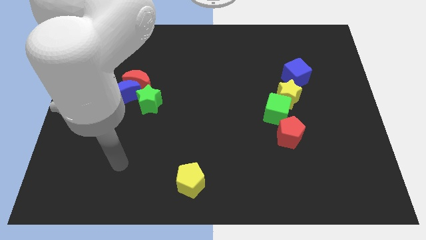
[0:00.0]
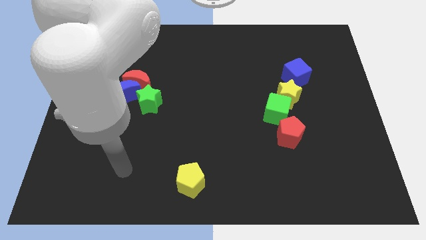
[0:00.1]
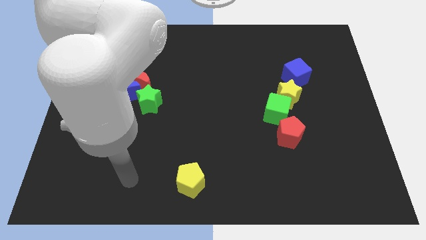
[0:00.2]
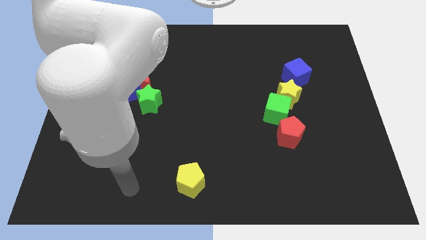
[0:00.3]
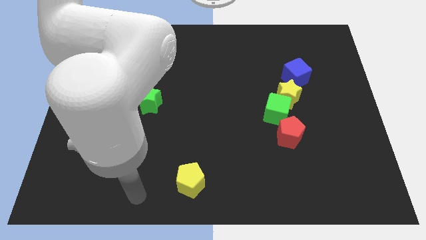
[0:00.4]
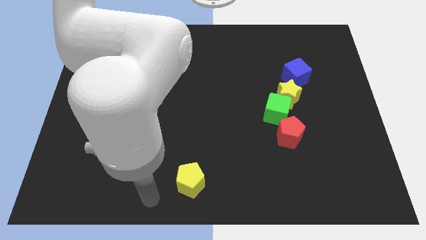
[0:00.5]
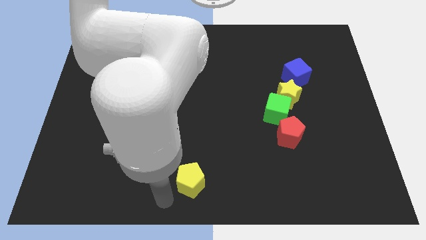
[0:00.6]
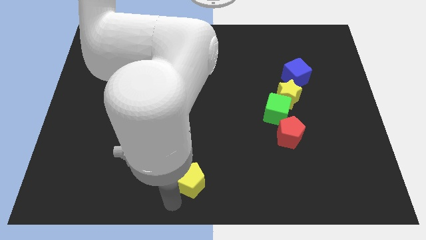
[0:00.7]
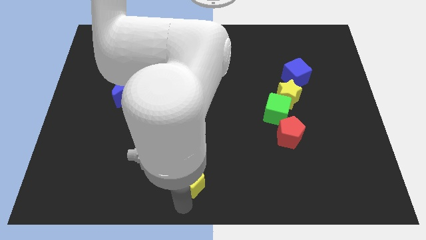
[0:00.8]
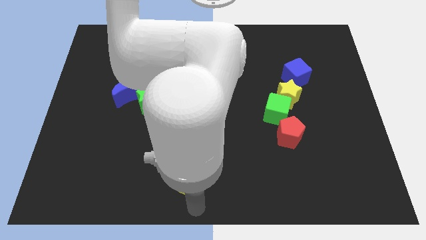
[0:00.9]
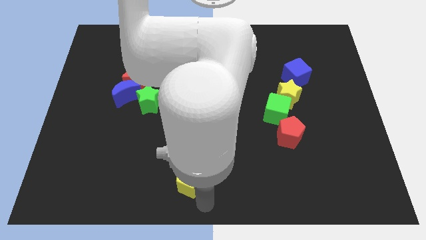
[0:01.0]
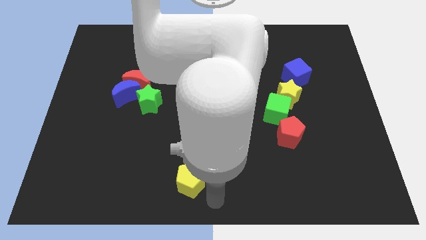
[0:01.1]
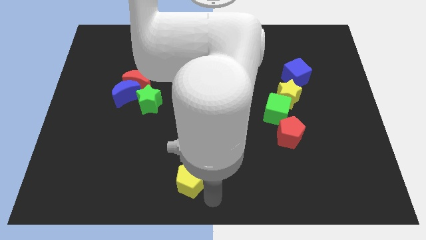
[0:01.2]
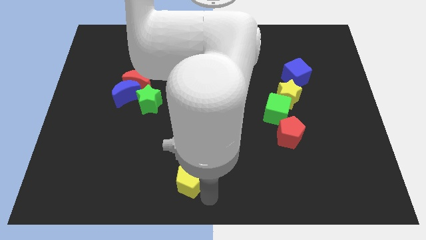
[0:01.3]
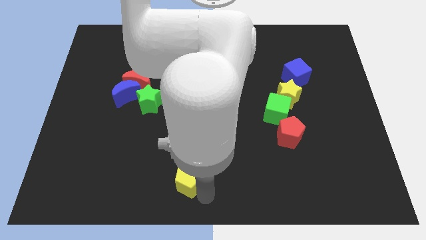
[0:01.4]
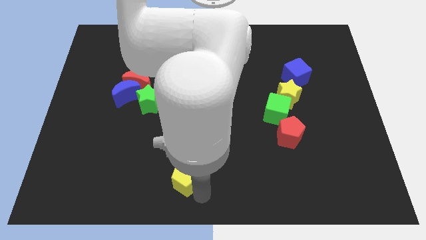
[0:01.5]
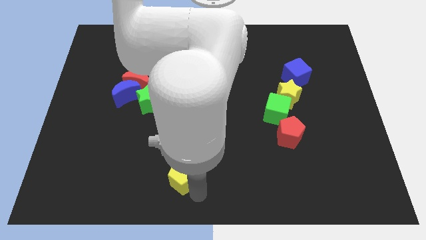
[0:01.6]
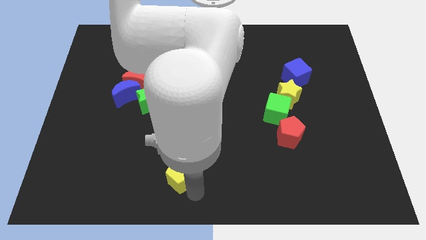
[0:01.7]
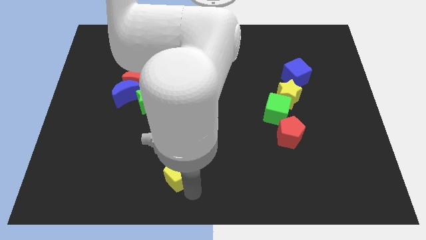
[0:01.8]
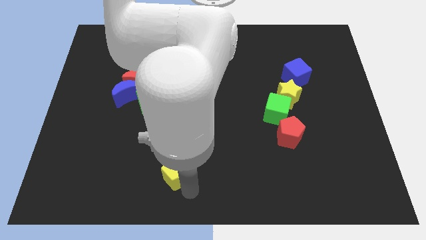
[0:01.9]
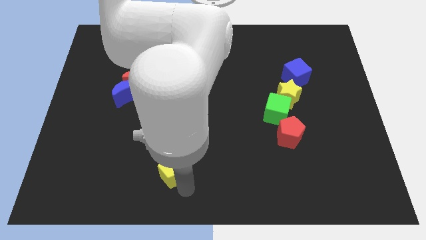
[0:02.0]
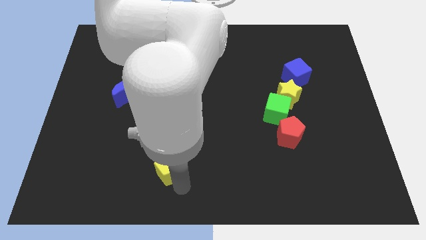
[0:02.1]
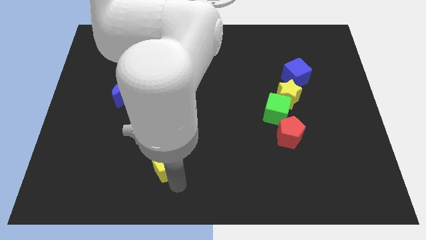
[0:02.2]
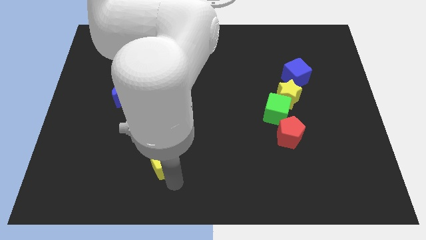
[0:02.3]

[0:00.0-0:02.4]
slightly move the yellow pentagon up and then left

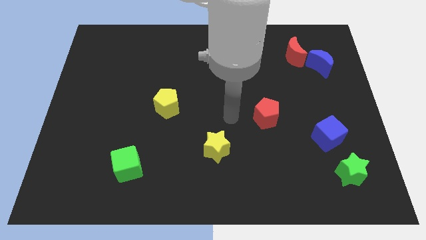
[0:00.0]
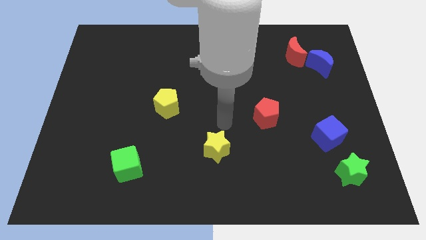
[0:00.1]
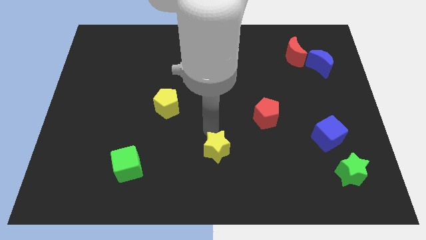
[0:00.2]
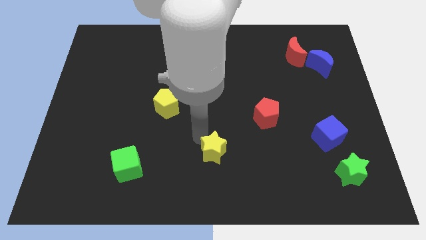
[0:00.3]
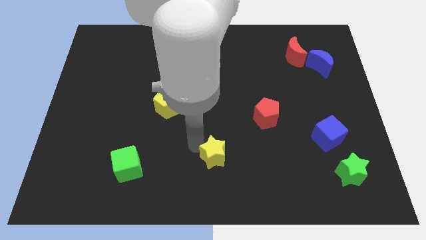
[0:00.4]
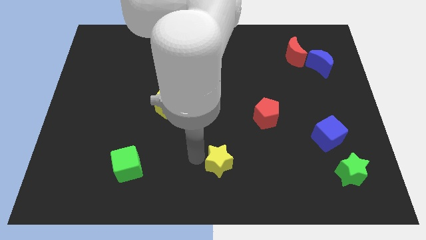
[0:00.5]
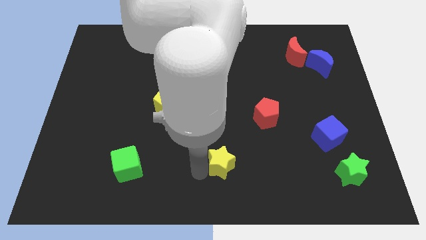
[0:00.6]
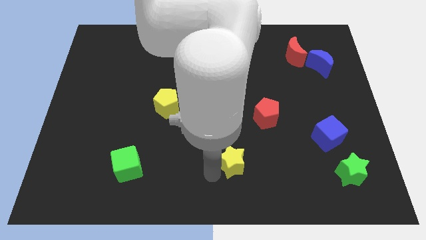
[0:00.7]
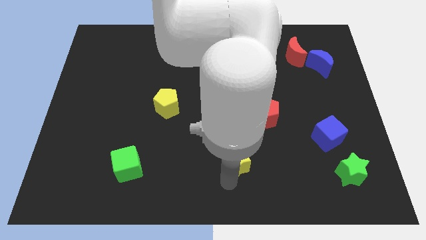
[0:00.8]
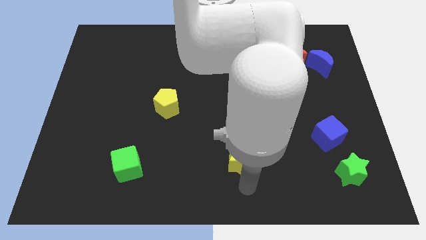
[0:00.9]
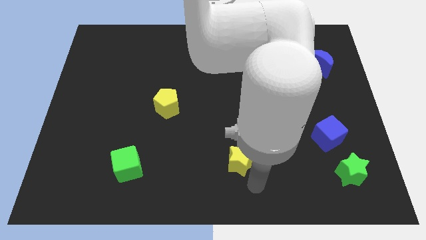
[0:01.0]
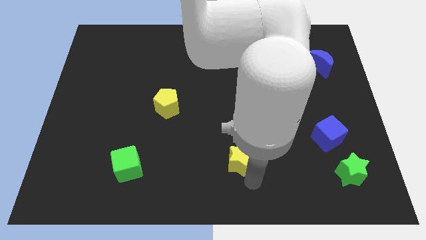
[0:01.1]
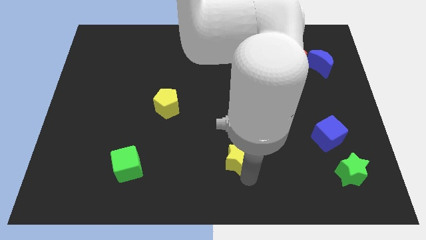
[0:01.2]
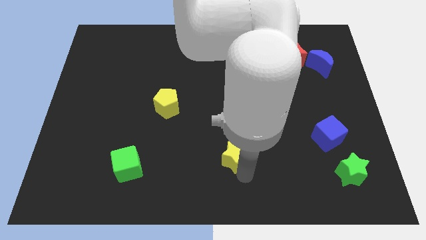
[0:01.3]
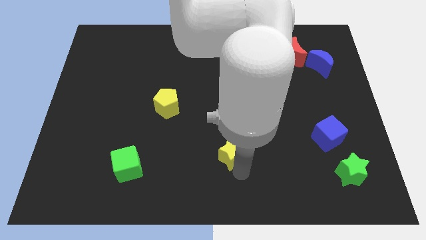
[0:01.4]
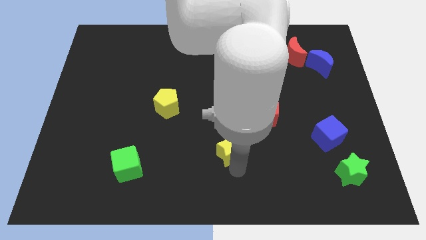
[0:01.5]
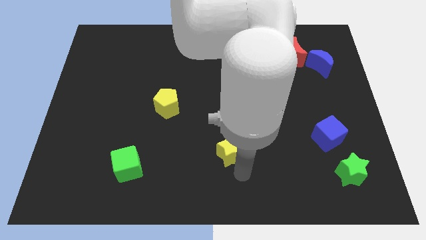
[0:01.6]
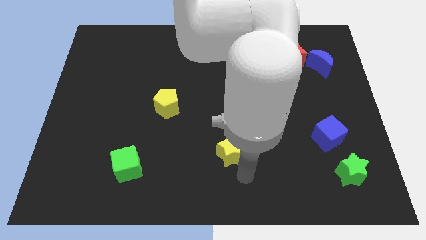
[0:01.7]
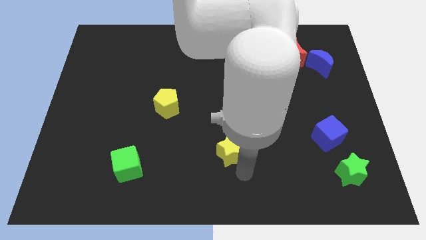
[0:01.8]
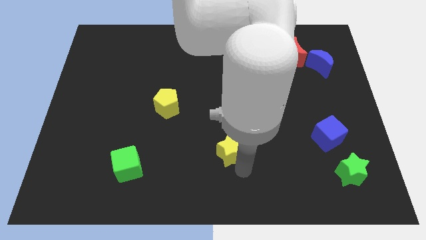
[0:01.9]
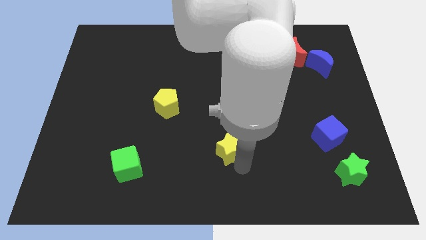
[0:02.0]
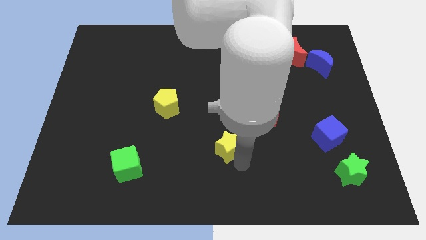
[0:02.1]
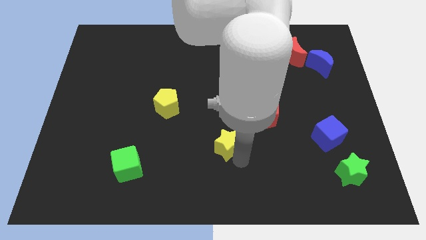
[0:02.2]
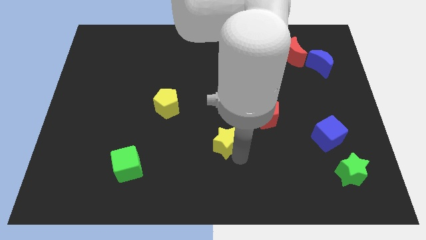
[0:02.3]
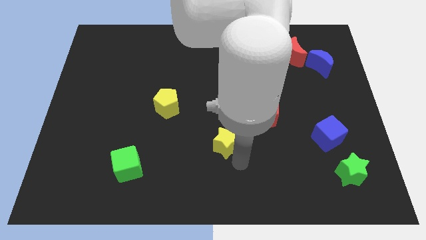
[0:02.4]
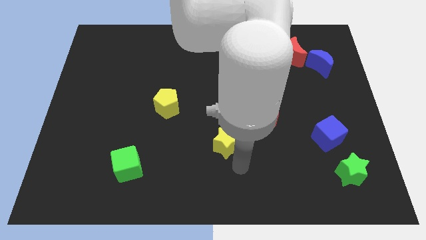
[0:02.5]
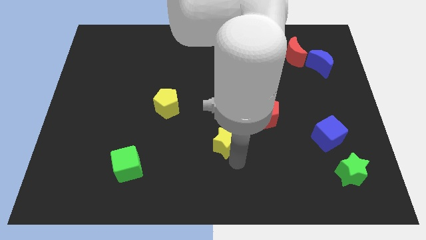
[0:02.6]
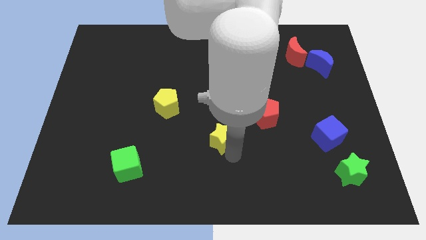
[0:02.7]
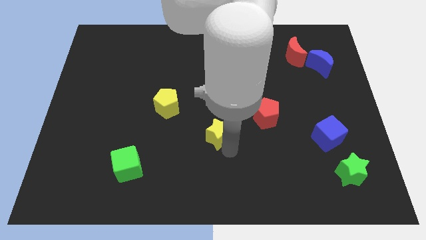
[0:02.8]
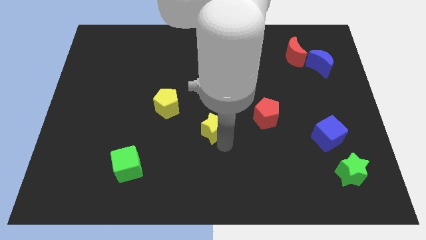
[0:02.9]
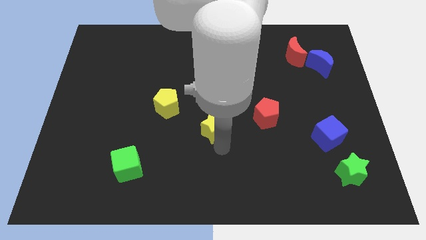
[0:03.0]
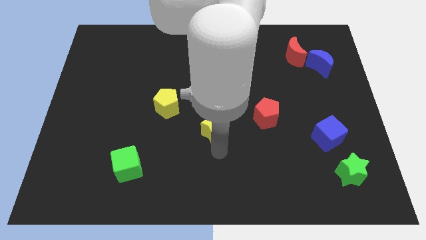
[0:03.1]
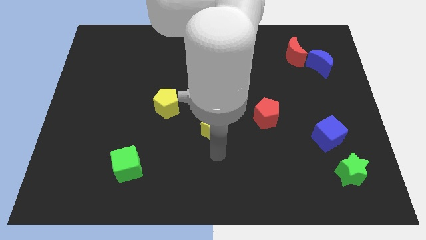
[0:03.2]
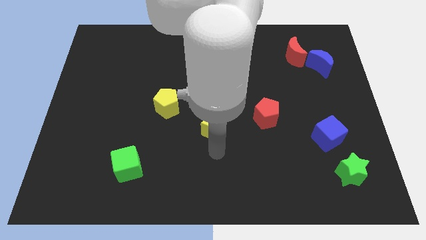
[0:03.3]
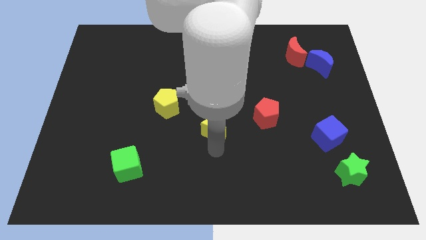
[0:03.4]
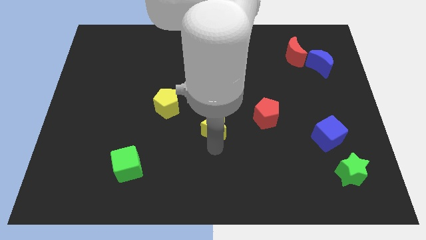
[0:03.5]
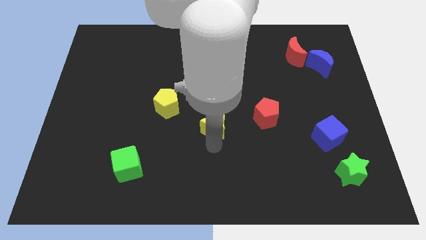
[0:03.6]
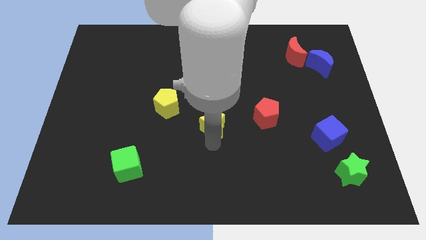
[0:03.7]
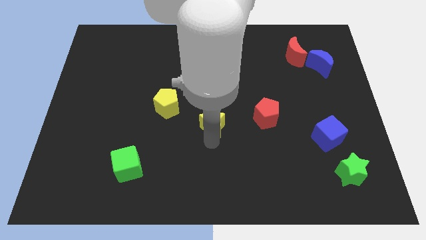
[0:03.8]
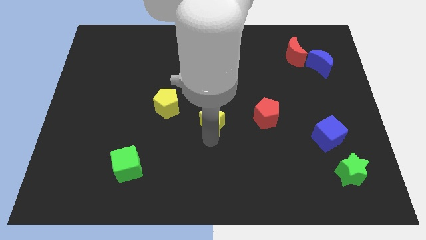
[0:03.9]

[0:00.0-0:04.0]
move the yellow star slightly up

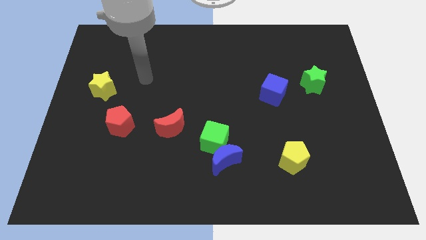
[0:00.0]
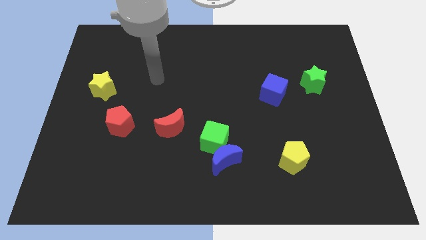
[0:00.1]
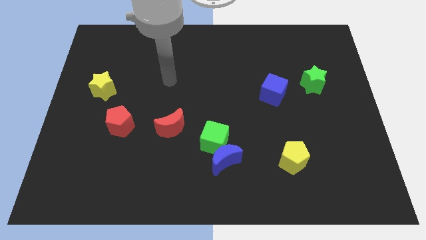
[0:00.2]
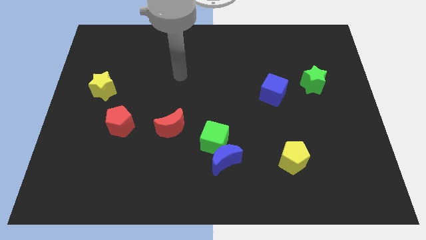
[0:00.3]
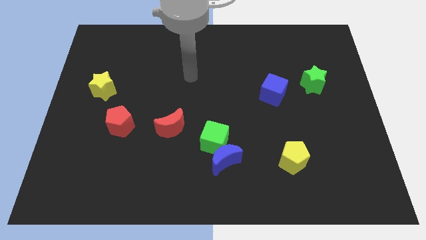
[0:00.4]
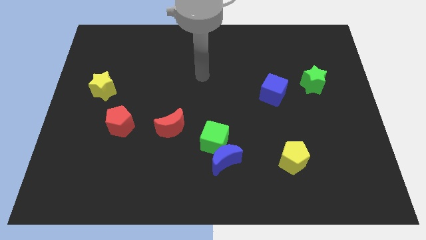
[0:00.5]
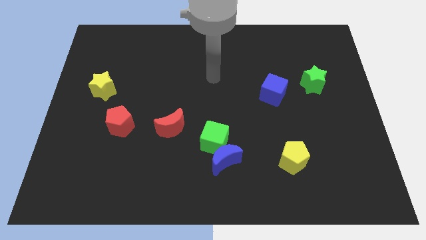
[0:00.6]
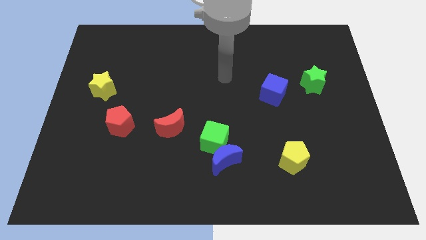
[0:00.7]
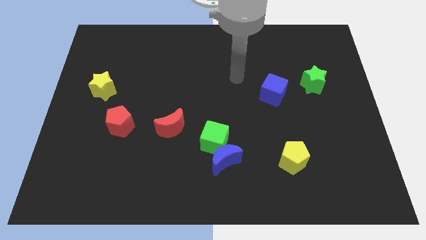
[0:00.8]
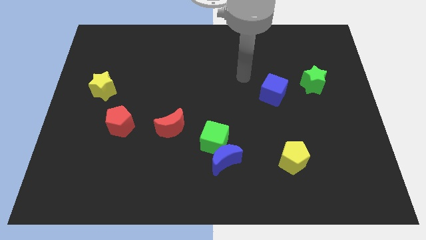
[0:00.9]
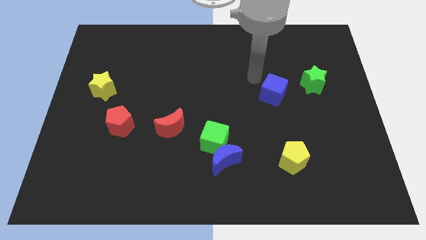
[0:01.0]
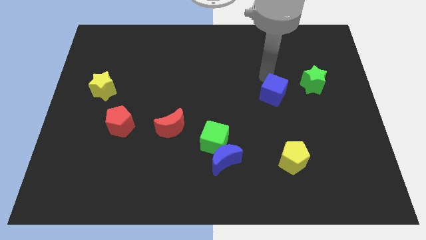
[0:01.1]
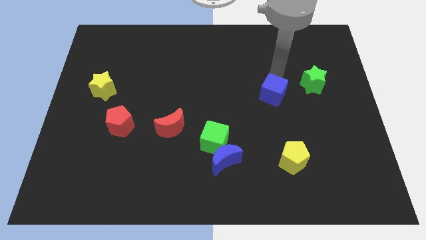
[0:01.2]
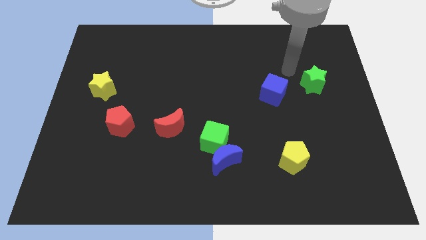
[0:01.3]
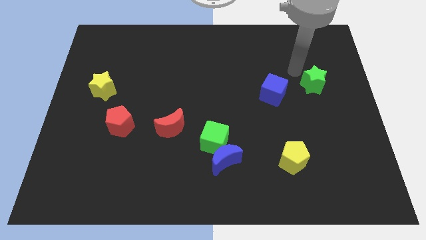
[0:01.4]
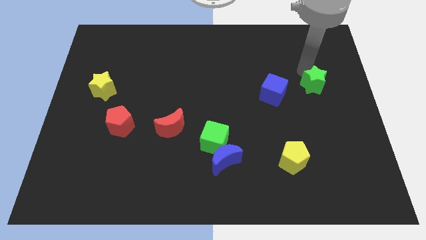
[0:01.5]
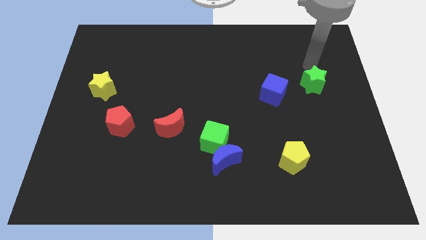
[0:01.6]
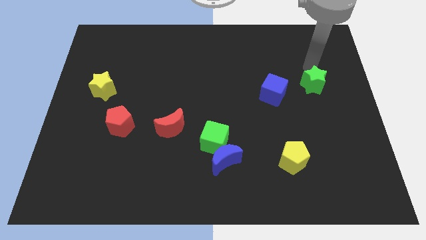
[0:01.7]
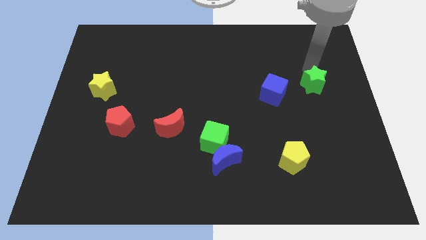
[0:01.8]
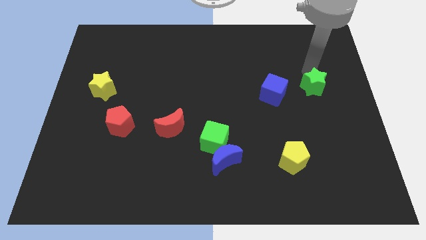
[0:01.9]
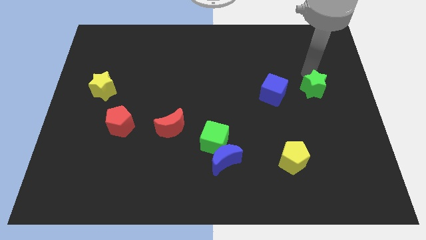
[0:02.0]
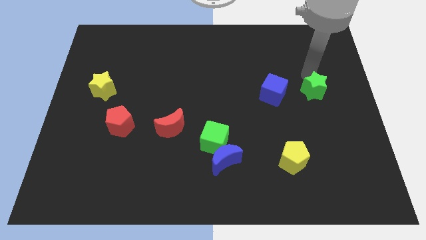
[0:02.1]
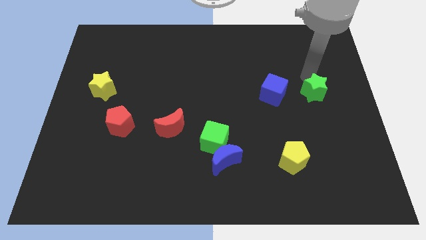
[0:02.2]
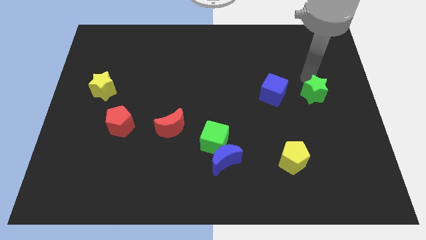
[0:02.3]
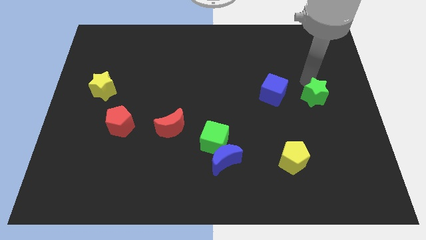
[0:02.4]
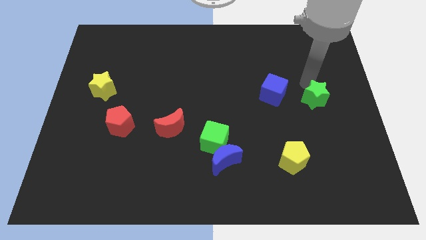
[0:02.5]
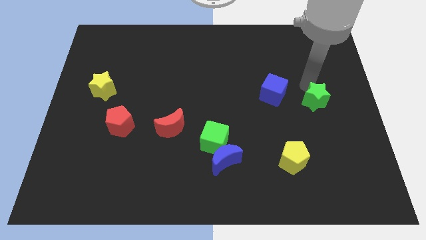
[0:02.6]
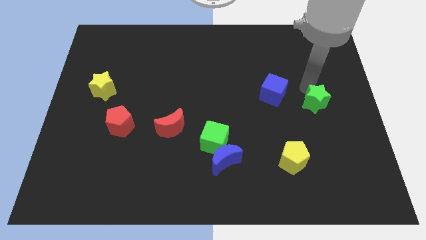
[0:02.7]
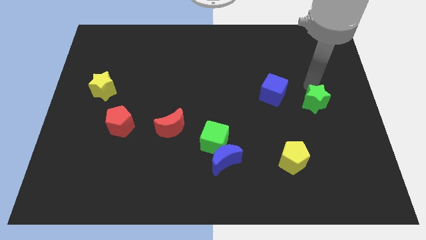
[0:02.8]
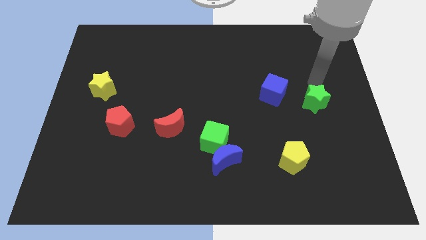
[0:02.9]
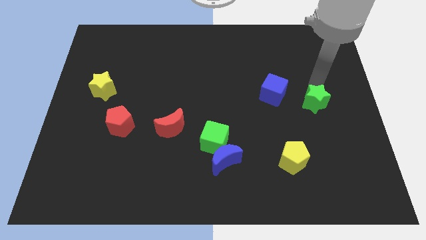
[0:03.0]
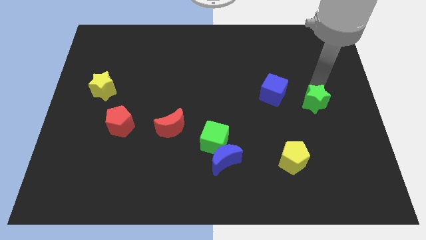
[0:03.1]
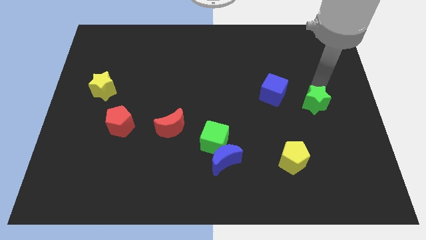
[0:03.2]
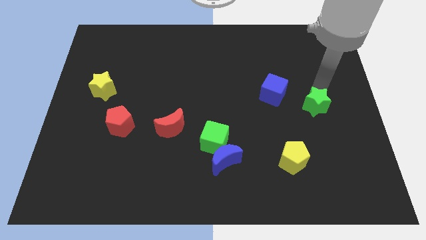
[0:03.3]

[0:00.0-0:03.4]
slightly move the green star downwards
